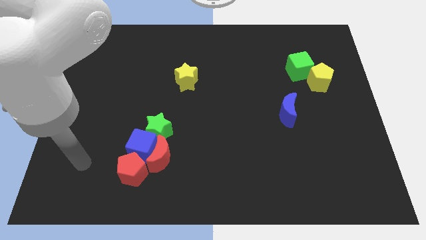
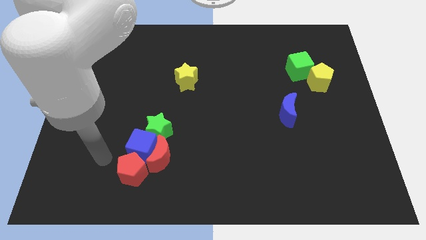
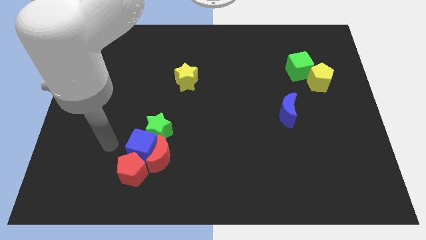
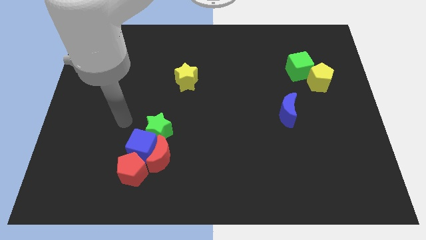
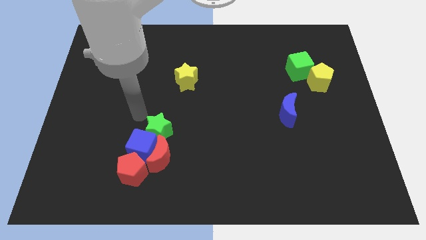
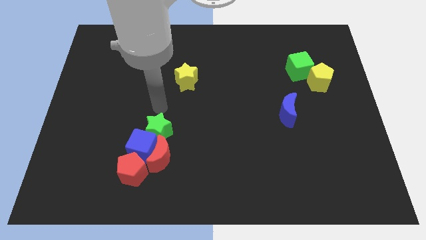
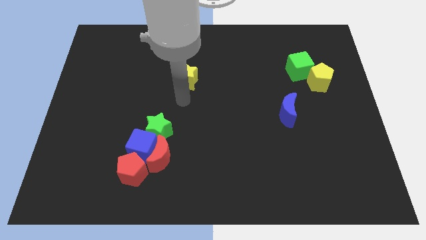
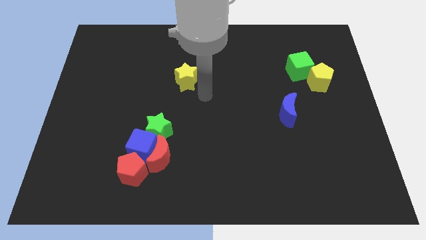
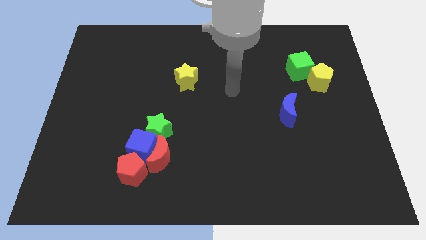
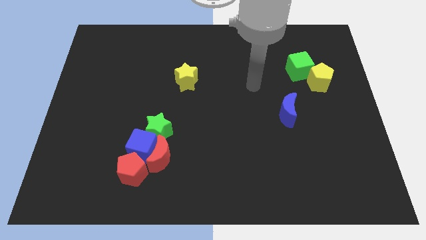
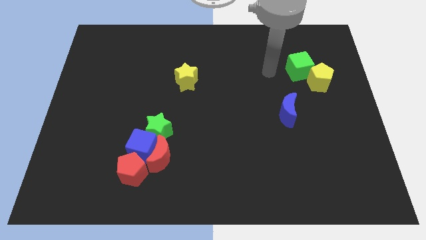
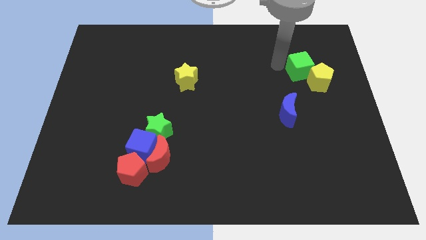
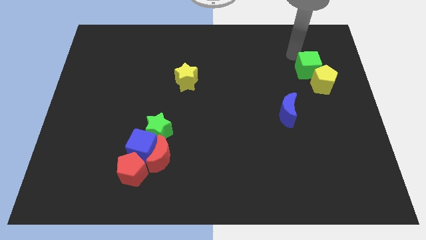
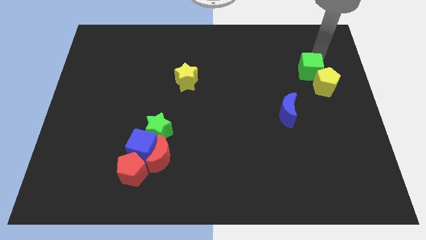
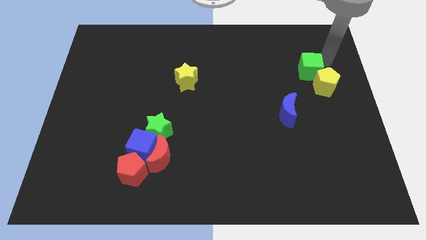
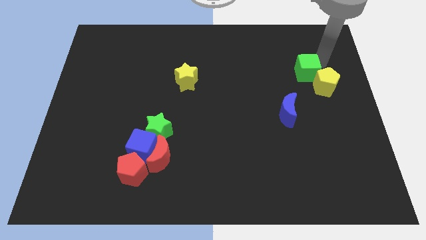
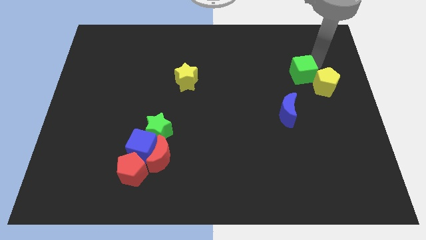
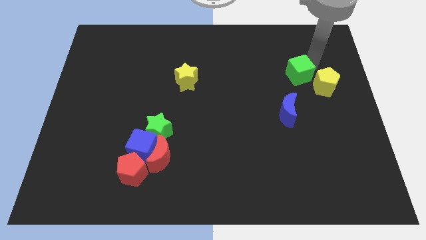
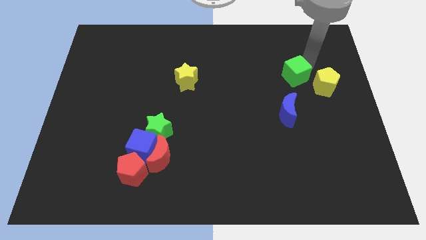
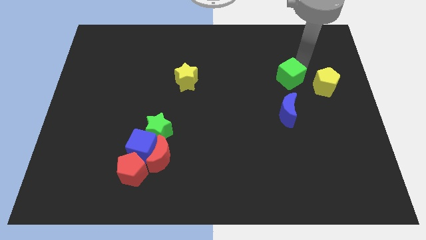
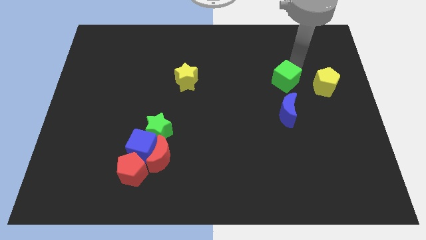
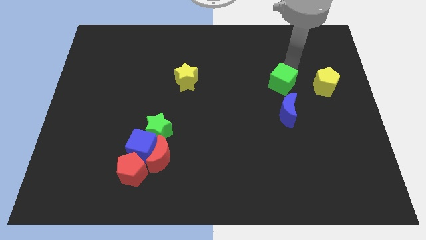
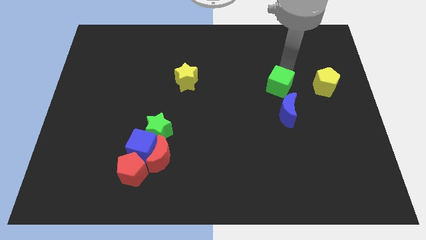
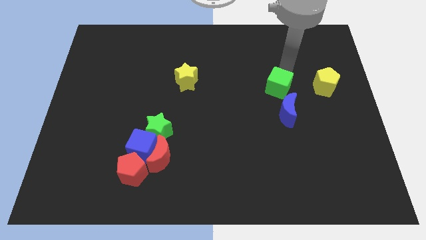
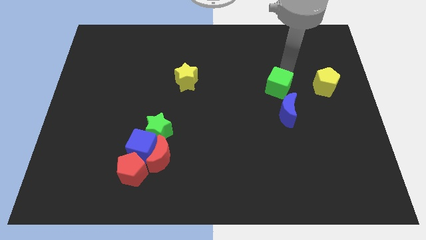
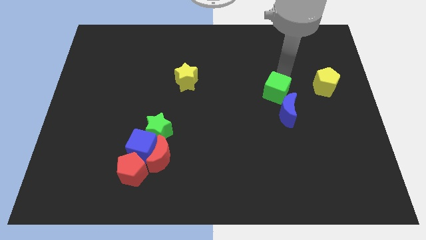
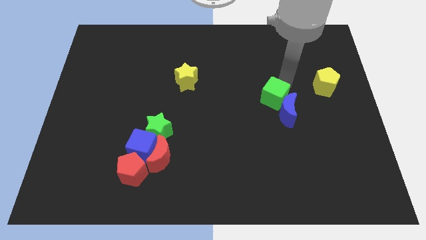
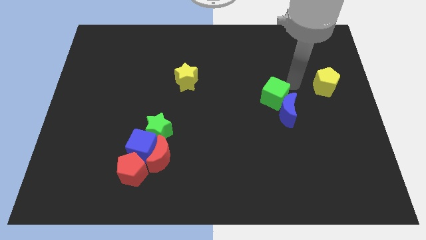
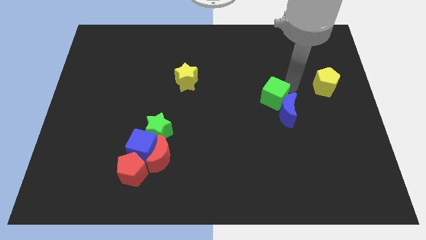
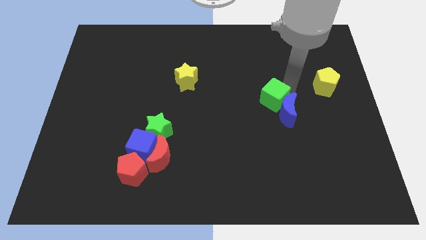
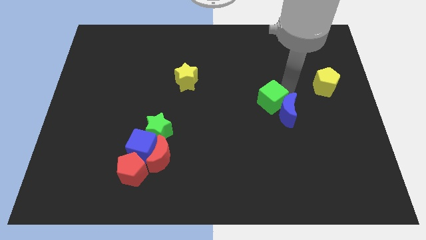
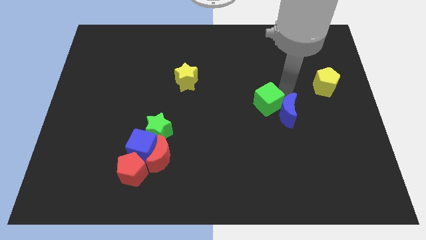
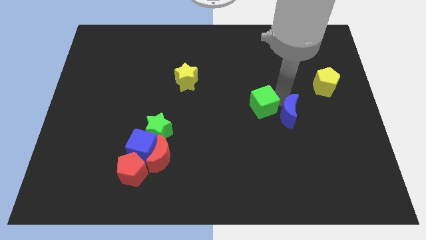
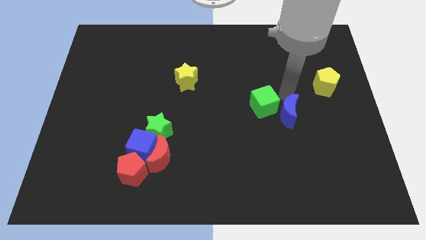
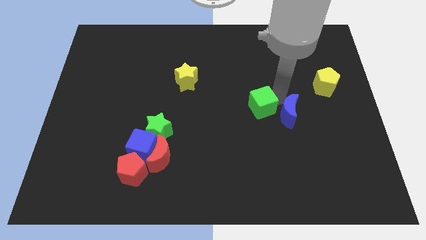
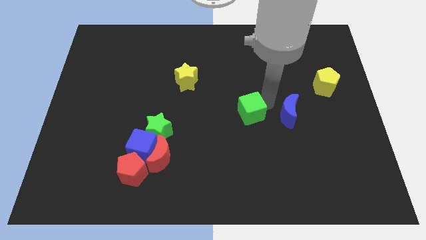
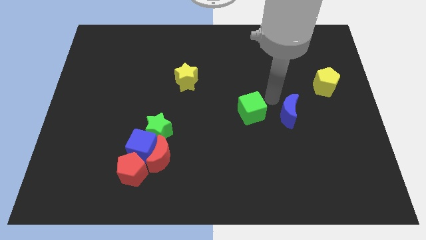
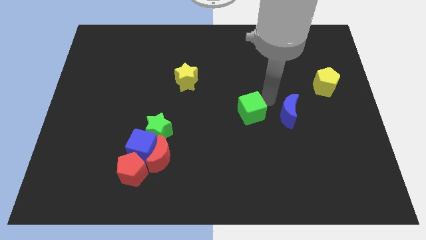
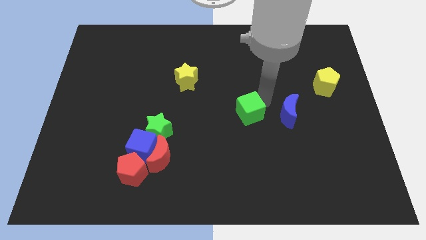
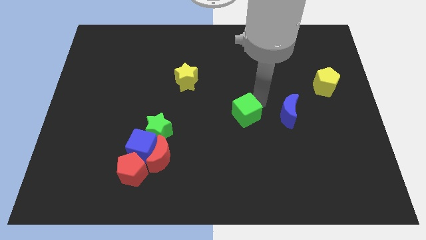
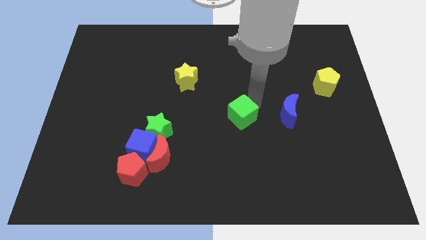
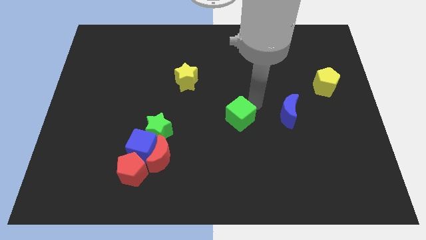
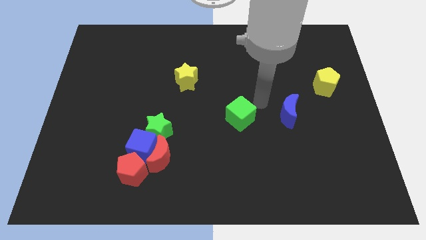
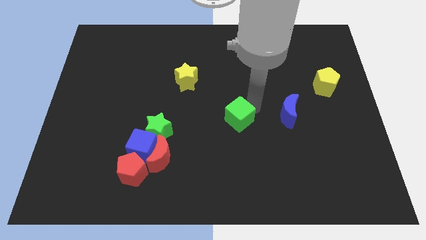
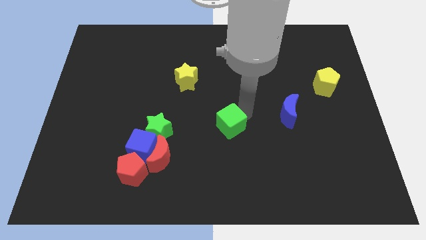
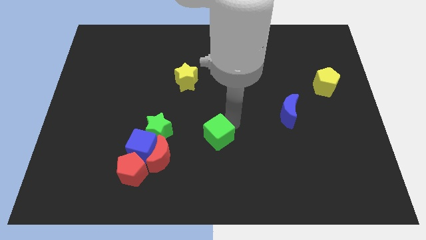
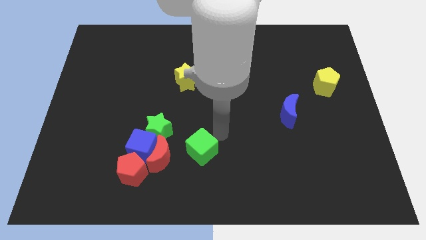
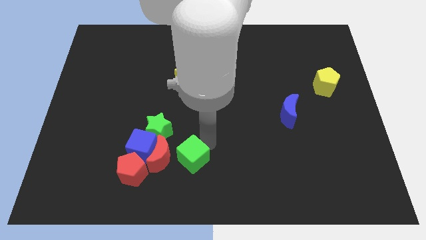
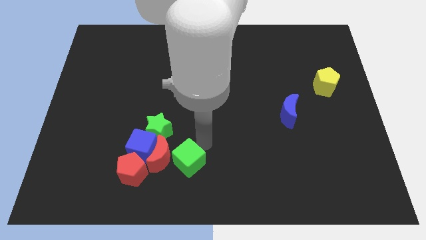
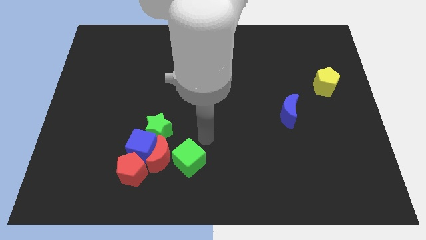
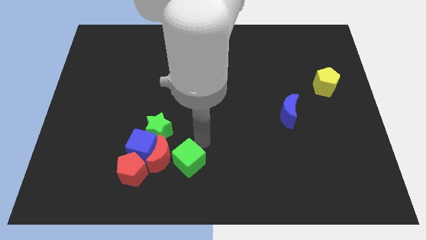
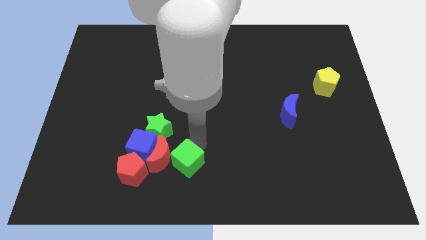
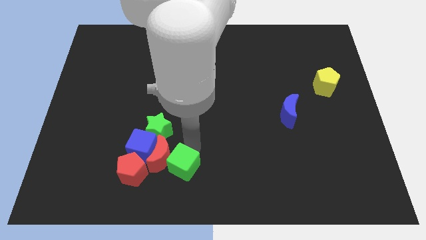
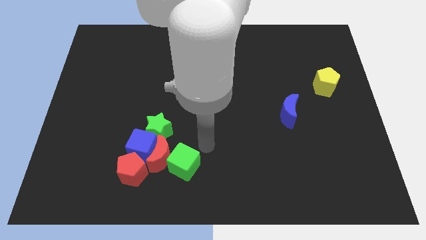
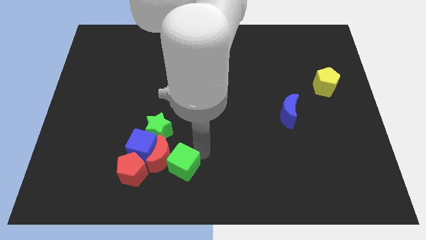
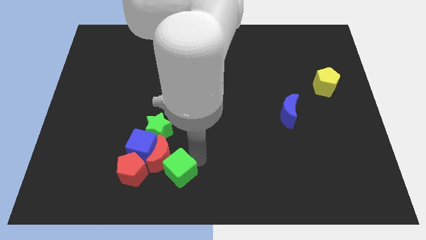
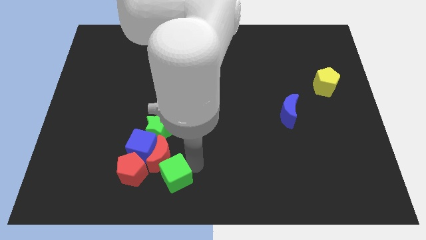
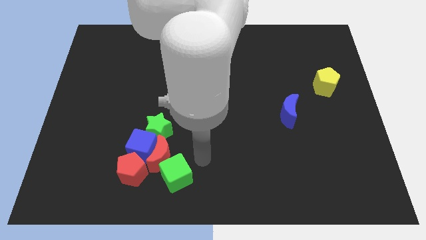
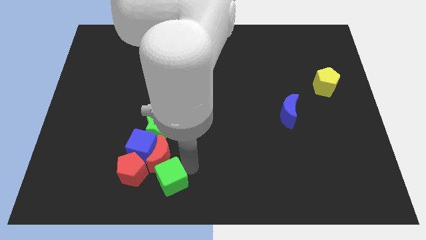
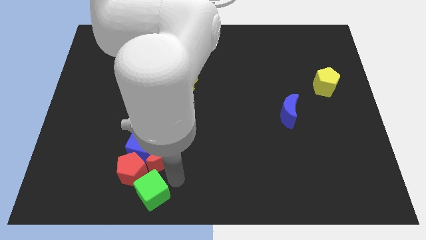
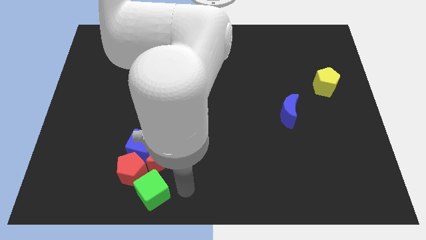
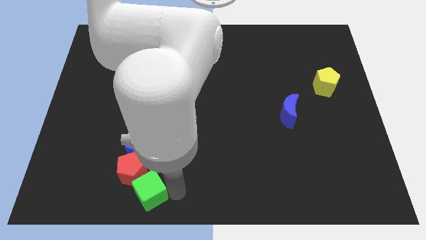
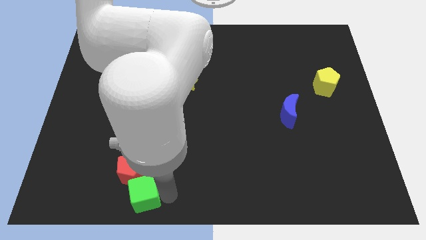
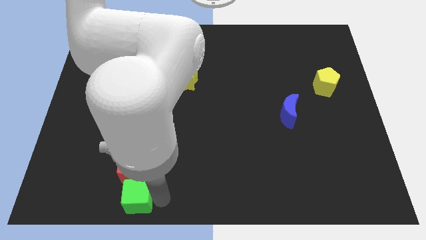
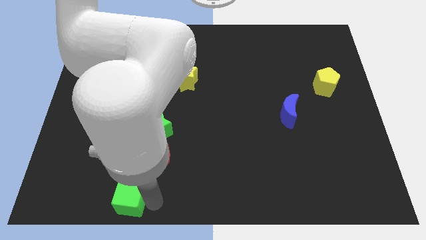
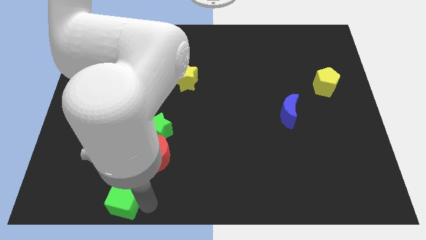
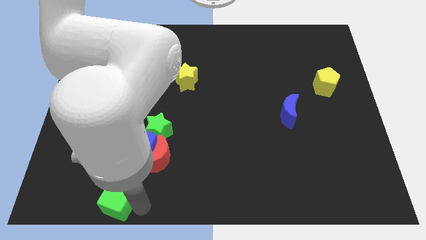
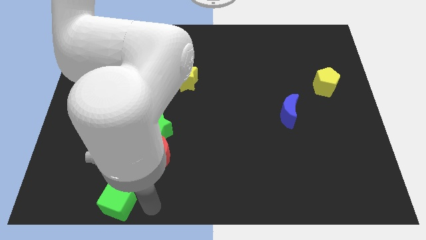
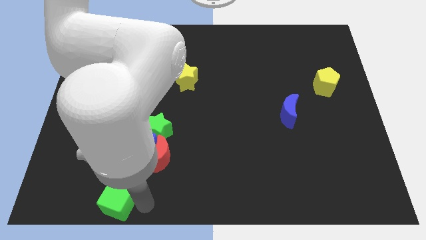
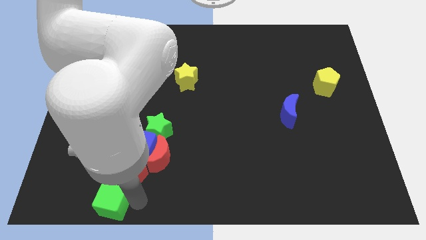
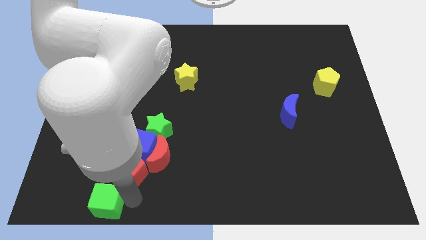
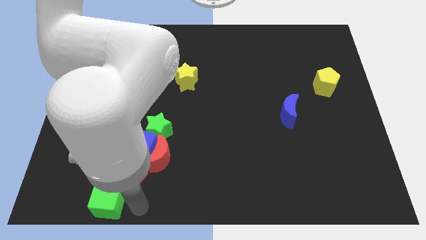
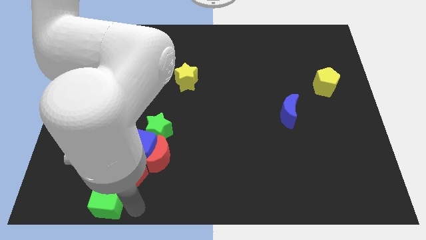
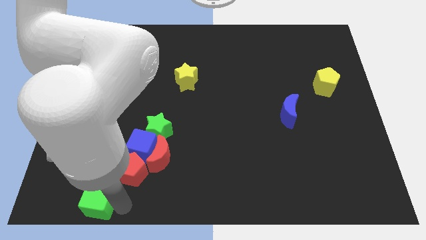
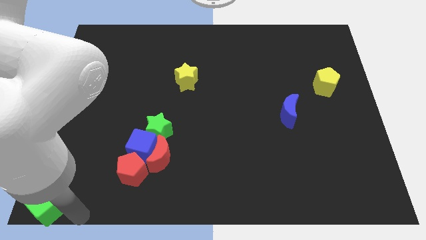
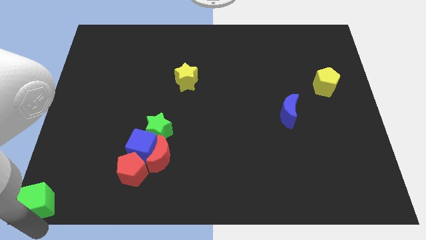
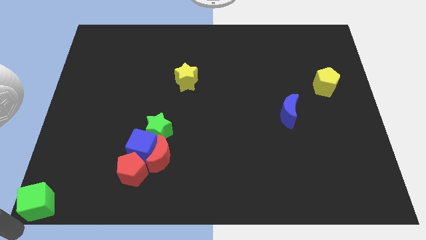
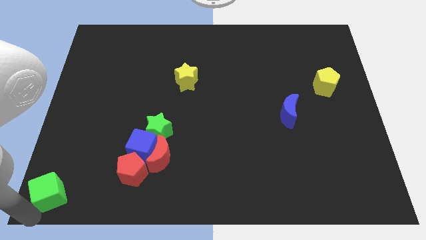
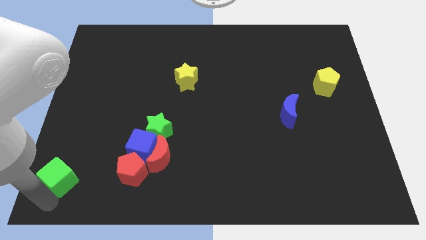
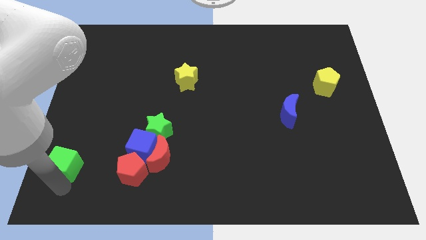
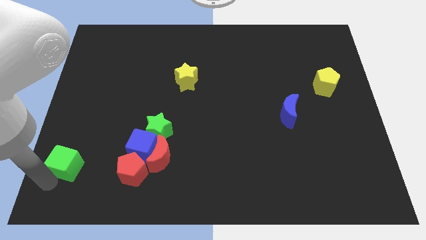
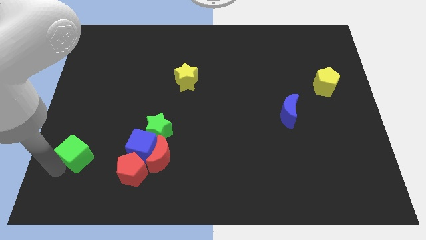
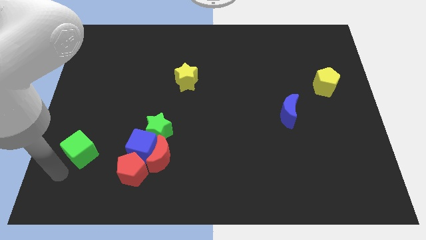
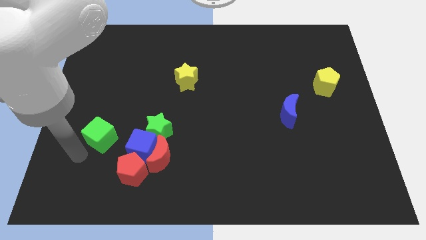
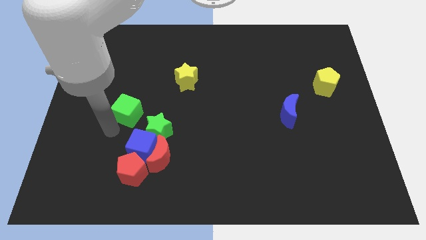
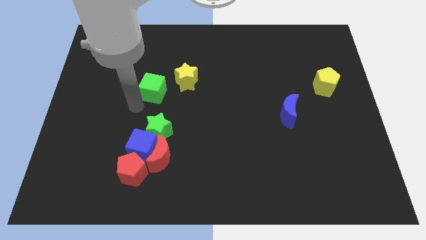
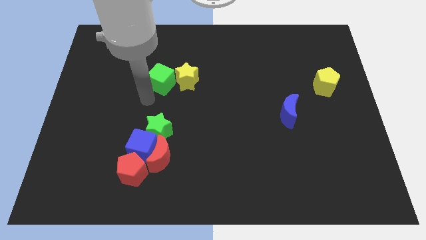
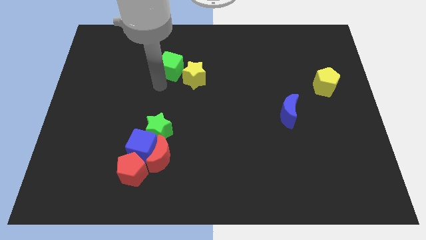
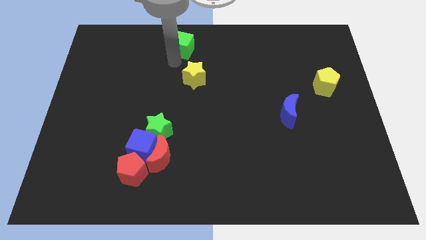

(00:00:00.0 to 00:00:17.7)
put the green cube to the towards your base
